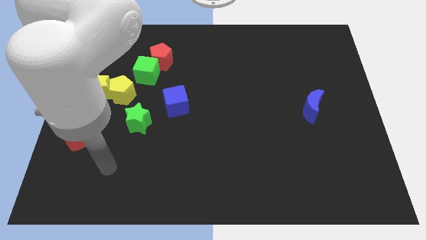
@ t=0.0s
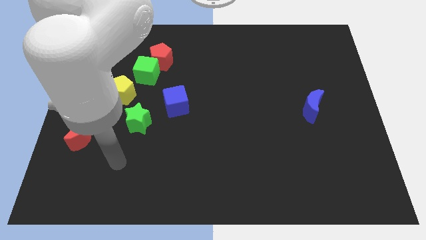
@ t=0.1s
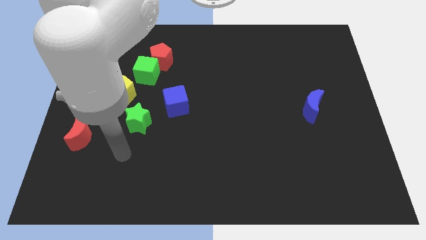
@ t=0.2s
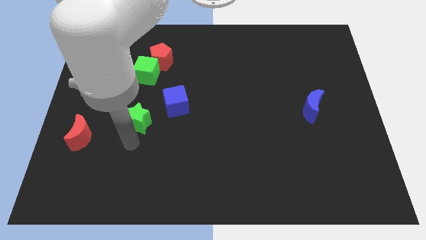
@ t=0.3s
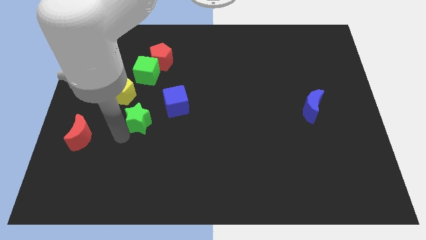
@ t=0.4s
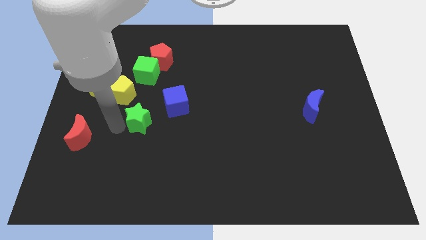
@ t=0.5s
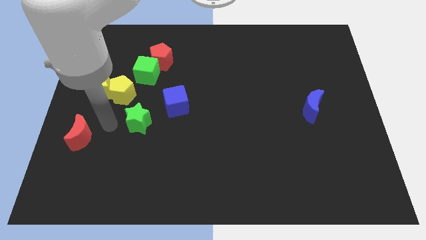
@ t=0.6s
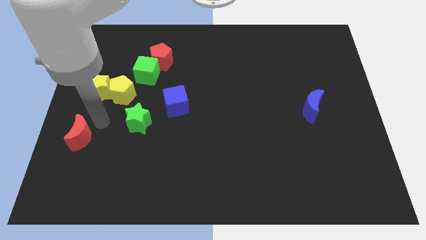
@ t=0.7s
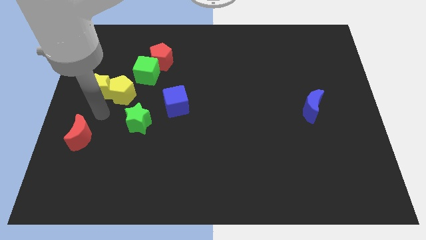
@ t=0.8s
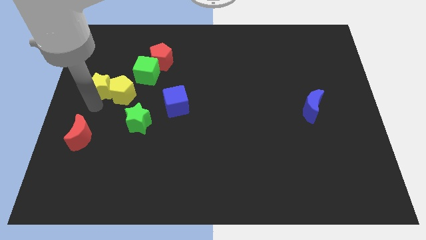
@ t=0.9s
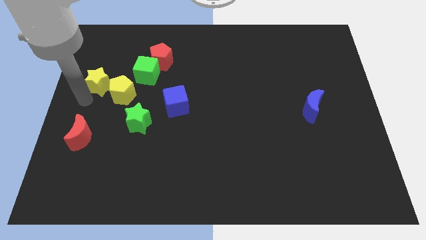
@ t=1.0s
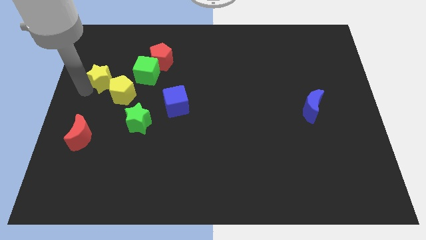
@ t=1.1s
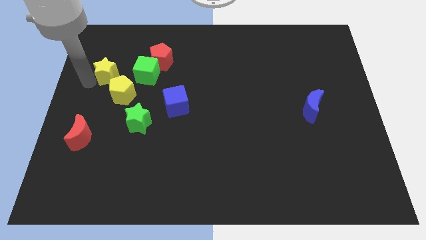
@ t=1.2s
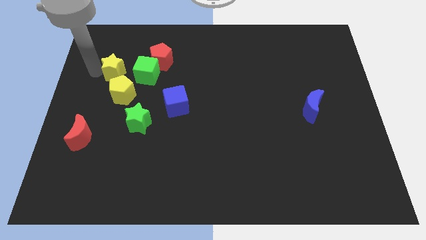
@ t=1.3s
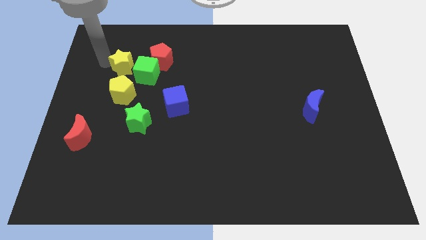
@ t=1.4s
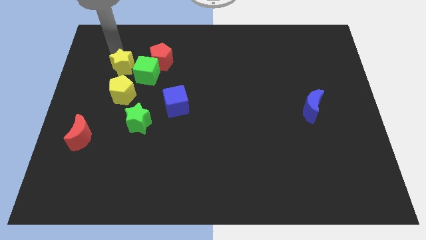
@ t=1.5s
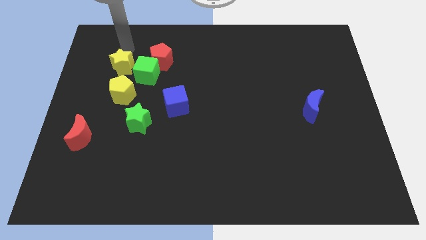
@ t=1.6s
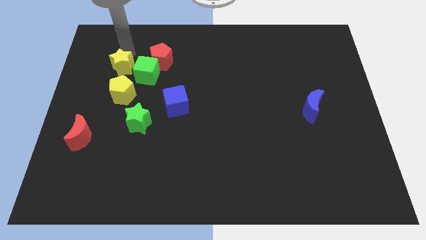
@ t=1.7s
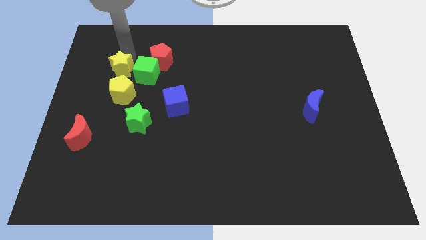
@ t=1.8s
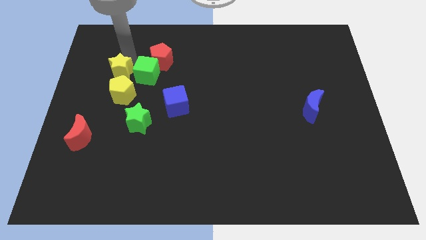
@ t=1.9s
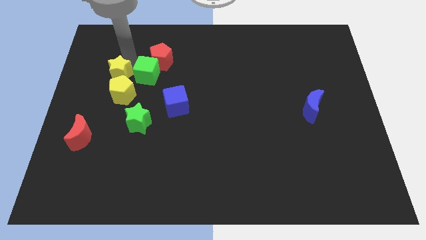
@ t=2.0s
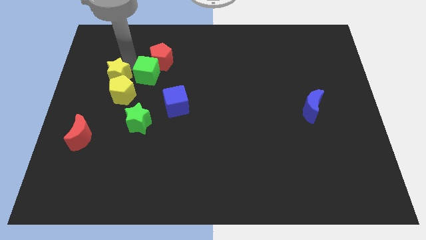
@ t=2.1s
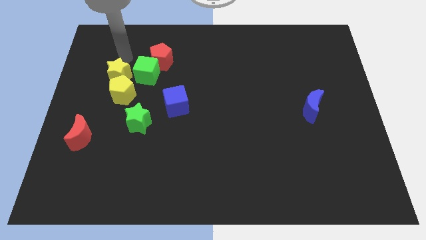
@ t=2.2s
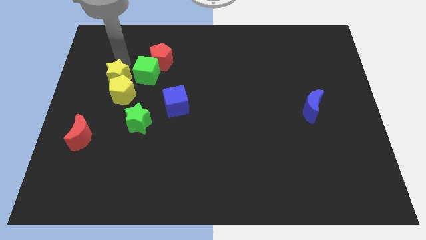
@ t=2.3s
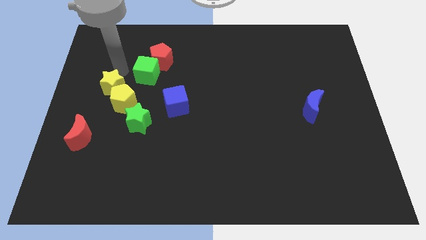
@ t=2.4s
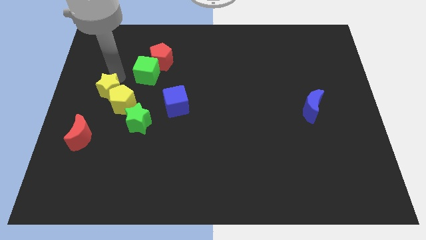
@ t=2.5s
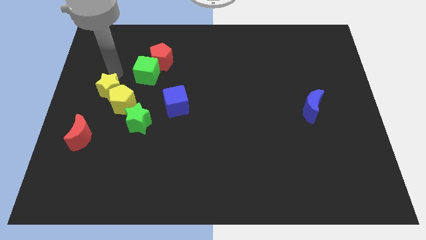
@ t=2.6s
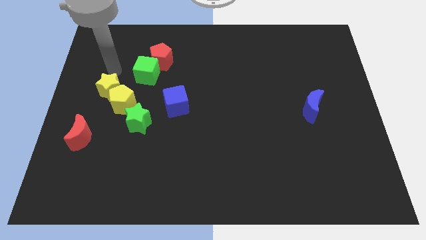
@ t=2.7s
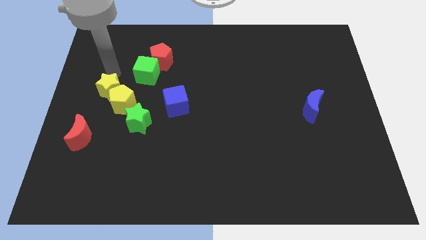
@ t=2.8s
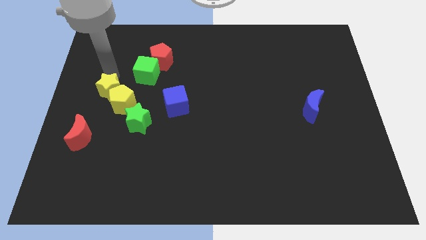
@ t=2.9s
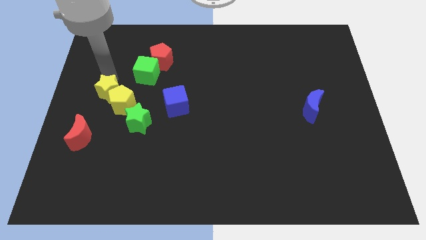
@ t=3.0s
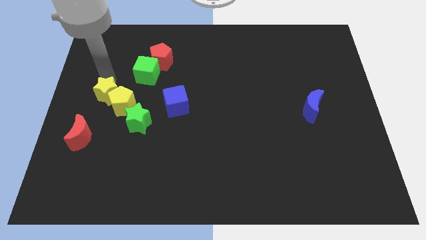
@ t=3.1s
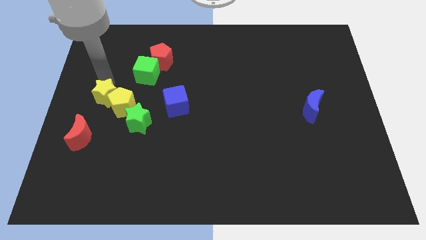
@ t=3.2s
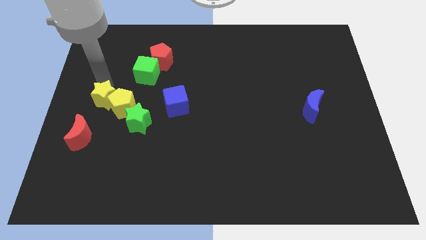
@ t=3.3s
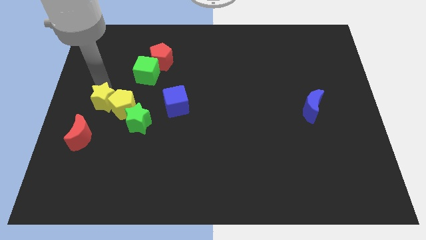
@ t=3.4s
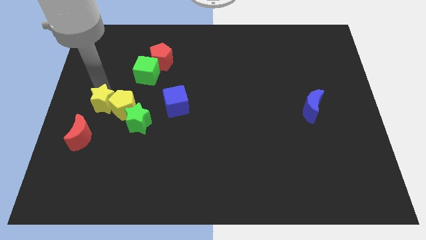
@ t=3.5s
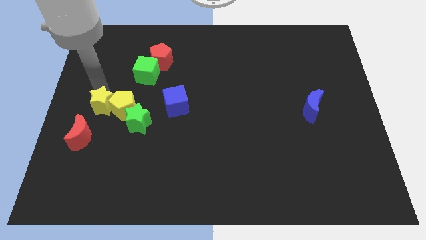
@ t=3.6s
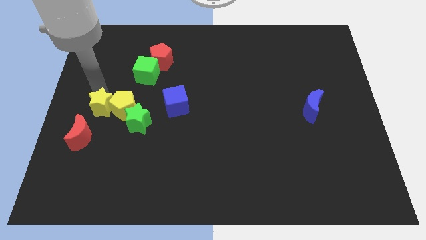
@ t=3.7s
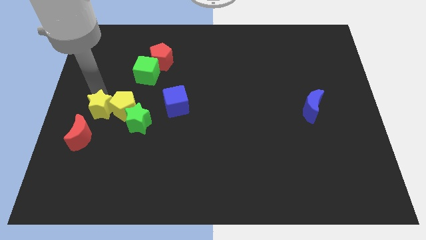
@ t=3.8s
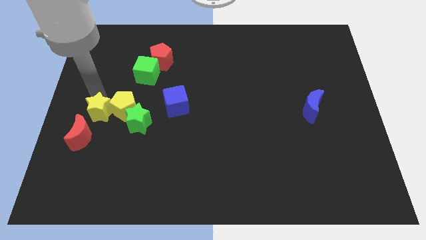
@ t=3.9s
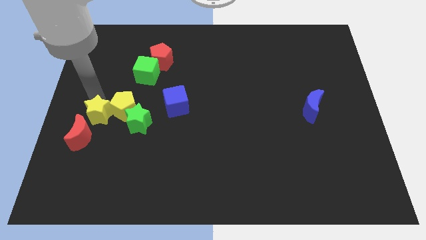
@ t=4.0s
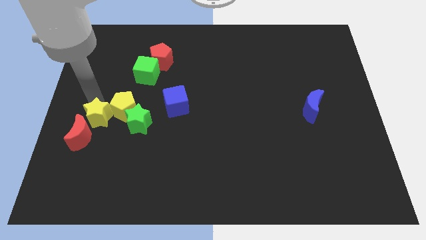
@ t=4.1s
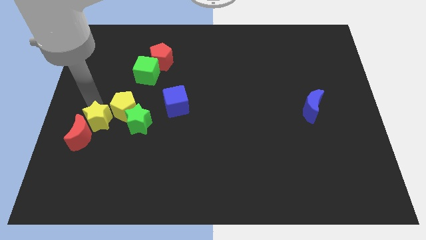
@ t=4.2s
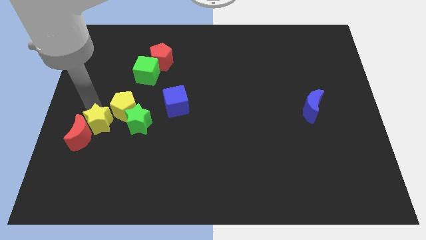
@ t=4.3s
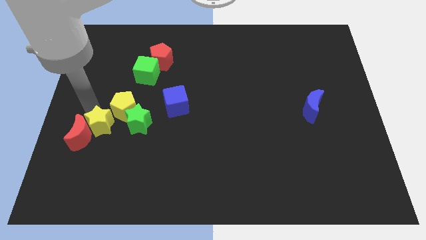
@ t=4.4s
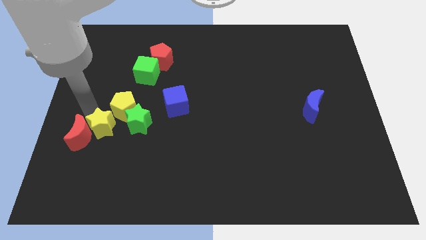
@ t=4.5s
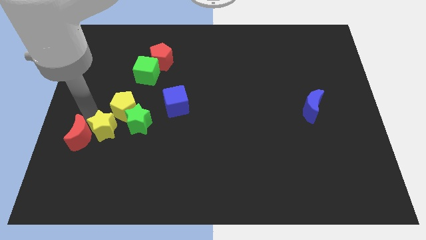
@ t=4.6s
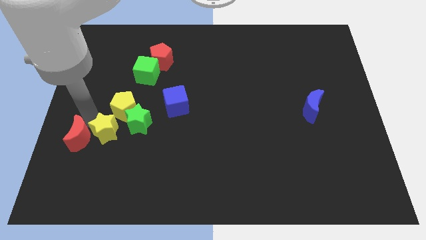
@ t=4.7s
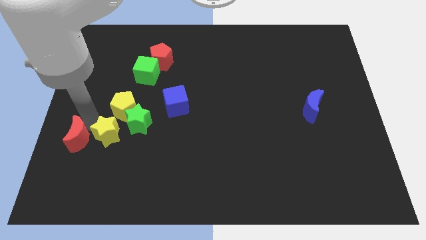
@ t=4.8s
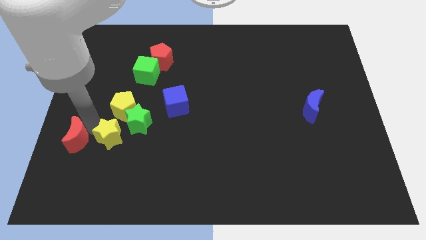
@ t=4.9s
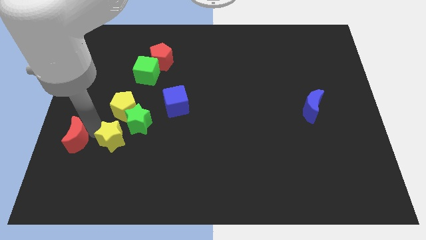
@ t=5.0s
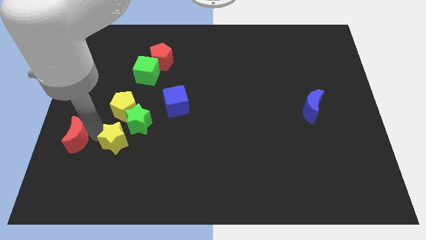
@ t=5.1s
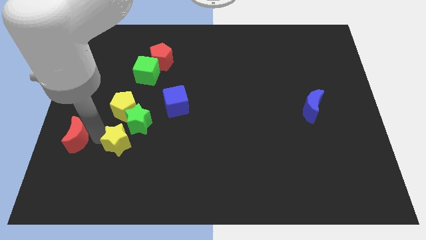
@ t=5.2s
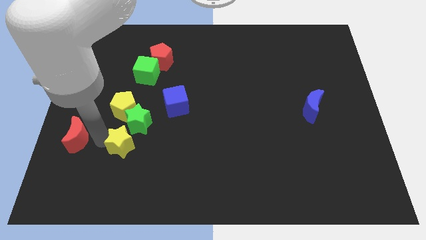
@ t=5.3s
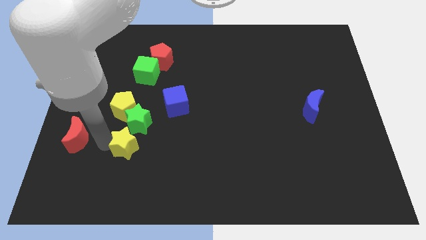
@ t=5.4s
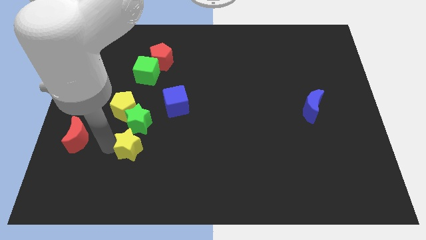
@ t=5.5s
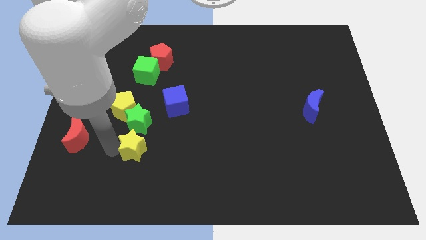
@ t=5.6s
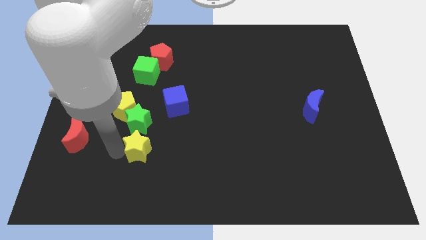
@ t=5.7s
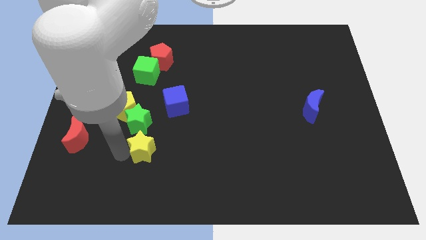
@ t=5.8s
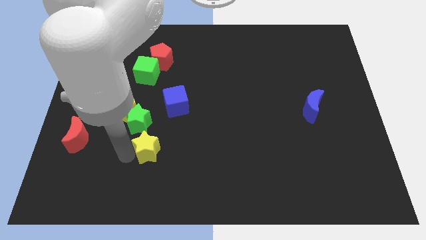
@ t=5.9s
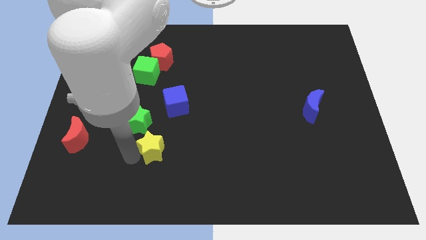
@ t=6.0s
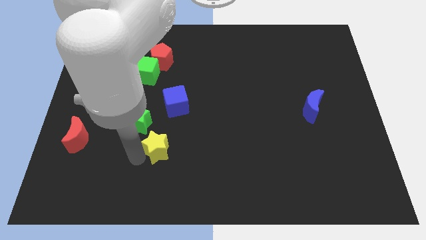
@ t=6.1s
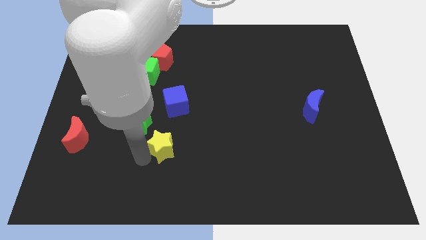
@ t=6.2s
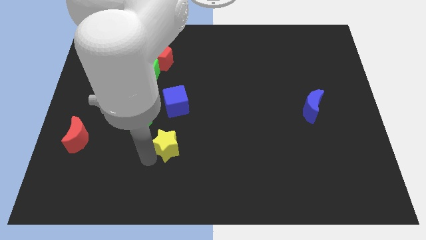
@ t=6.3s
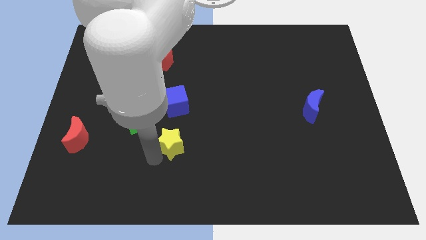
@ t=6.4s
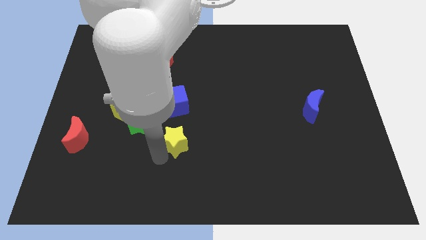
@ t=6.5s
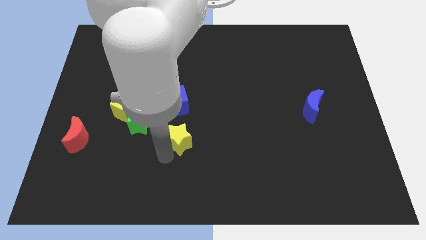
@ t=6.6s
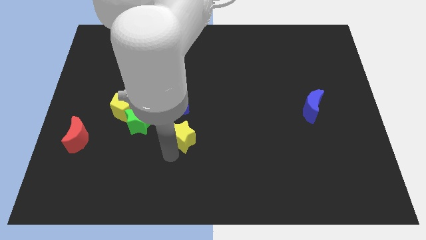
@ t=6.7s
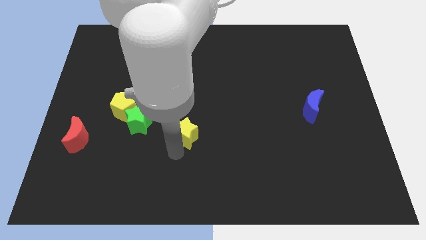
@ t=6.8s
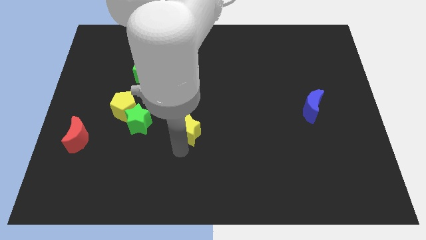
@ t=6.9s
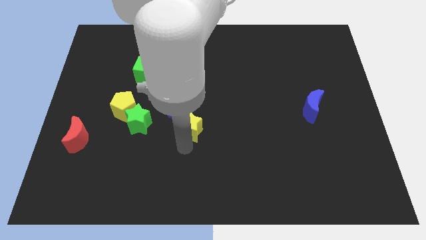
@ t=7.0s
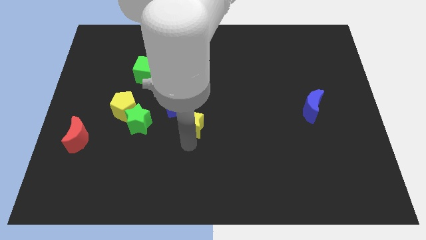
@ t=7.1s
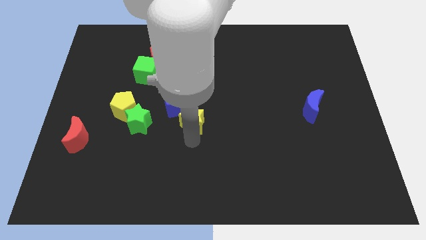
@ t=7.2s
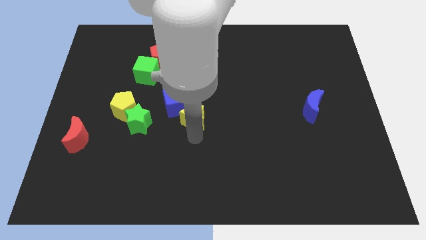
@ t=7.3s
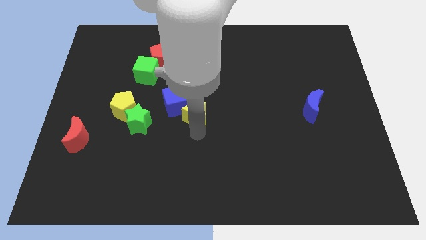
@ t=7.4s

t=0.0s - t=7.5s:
move the yellow star right

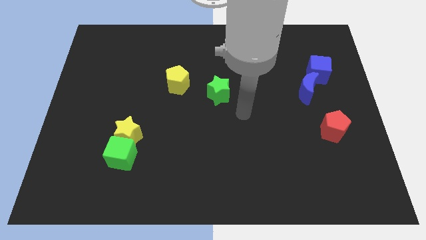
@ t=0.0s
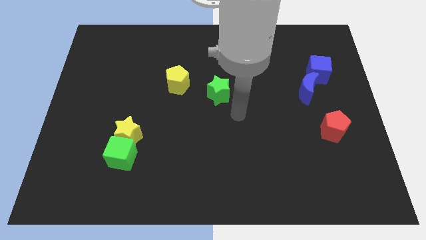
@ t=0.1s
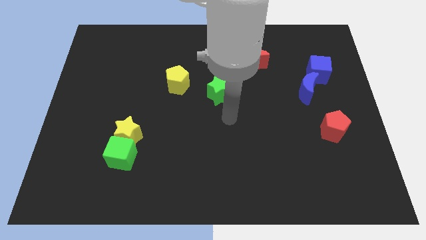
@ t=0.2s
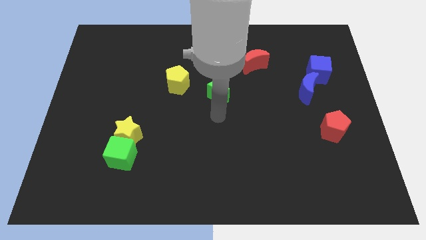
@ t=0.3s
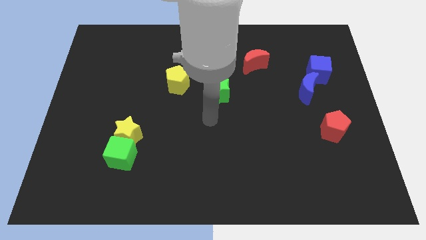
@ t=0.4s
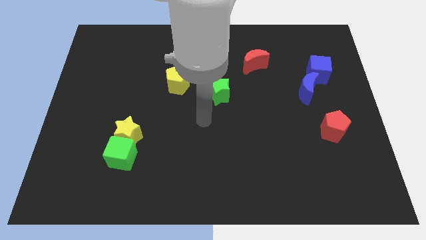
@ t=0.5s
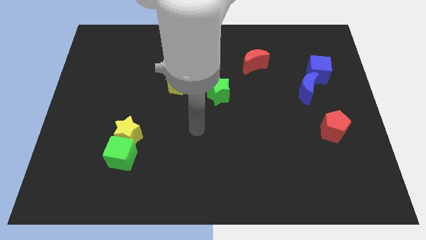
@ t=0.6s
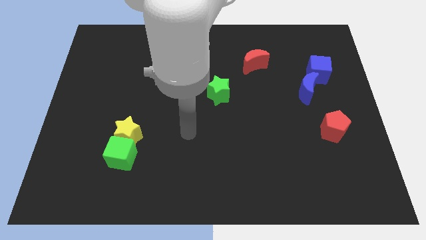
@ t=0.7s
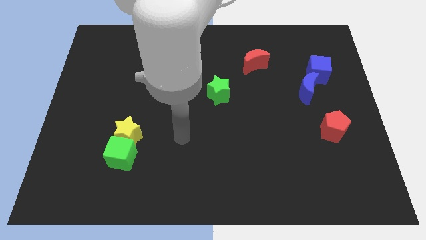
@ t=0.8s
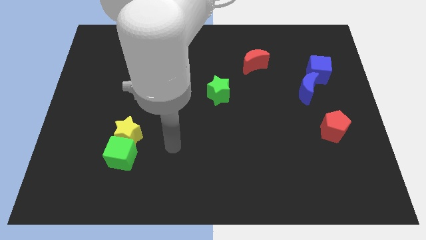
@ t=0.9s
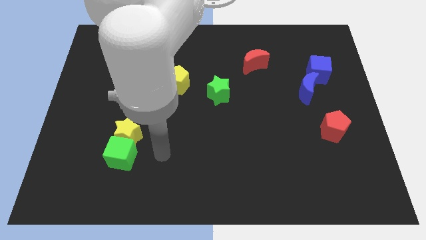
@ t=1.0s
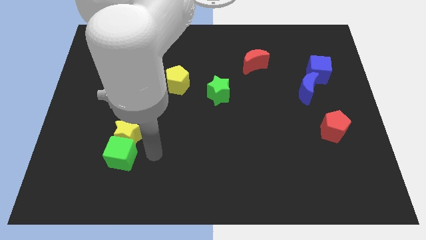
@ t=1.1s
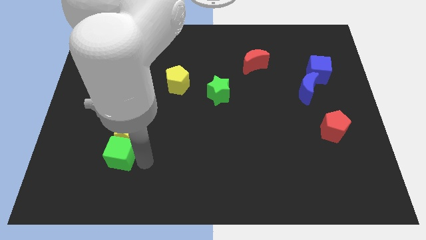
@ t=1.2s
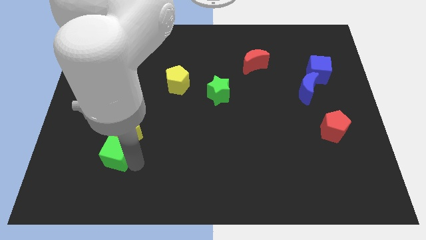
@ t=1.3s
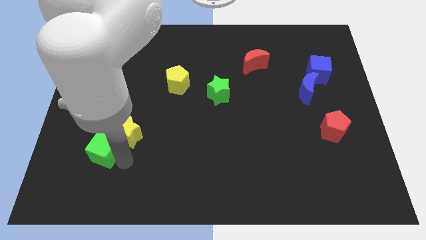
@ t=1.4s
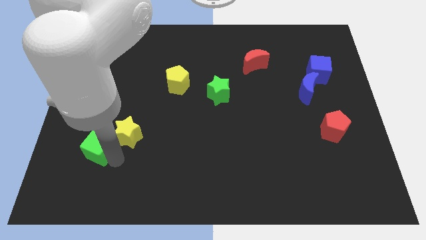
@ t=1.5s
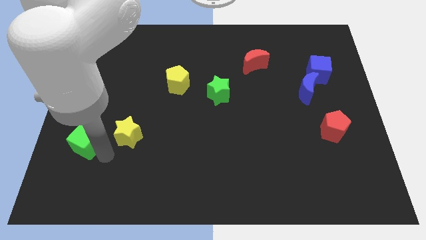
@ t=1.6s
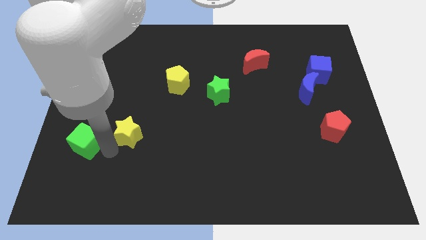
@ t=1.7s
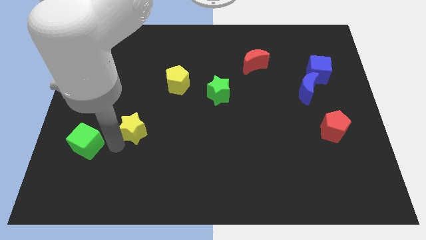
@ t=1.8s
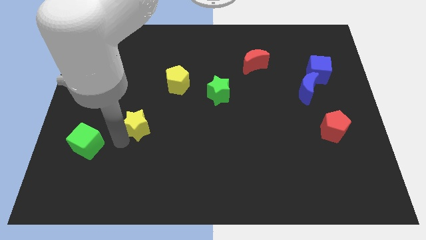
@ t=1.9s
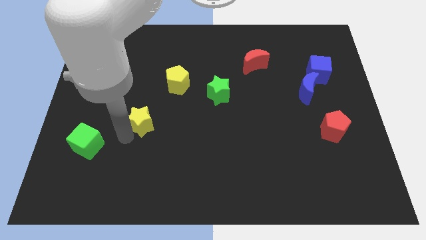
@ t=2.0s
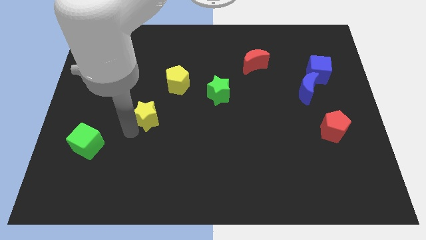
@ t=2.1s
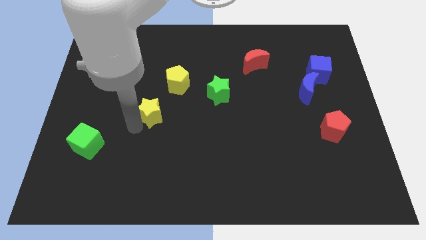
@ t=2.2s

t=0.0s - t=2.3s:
slightly push the yellow star upwards and to the right
